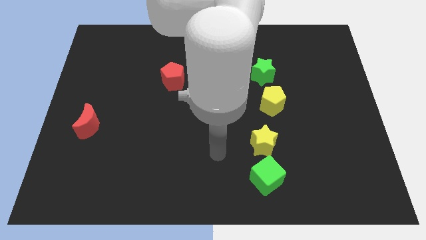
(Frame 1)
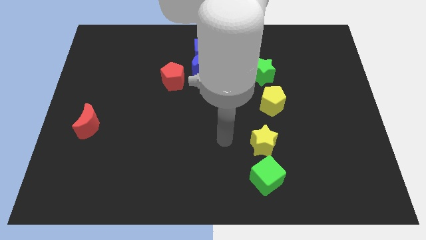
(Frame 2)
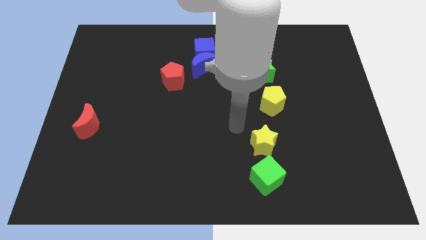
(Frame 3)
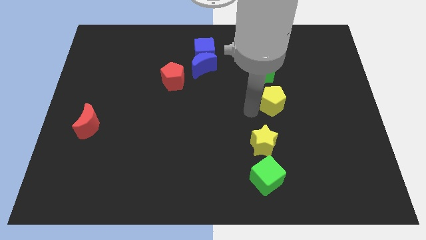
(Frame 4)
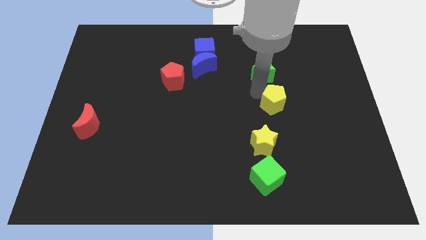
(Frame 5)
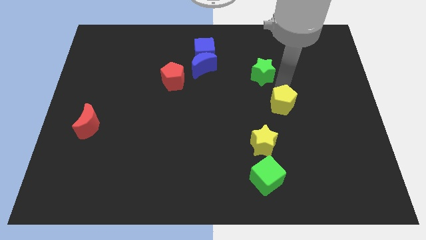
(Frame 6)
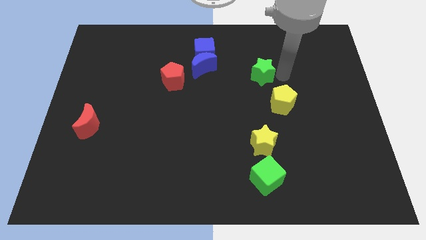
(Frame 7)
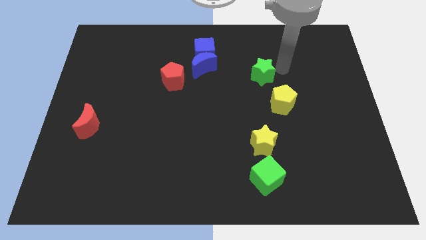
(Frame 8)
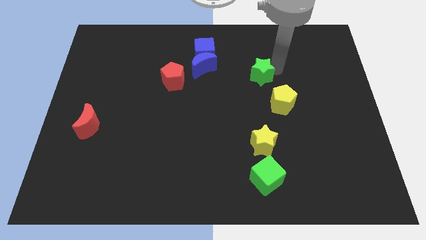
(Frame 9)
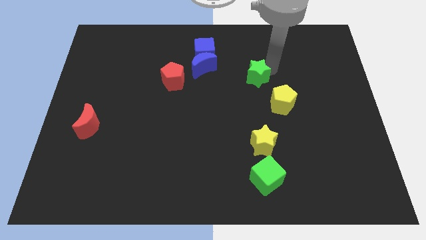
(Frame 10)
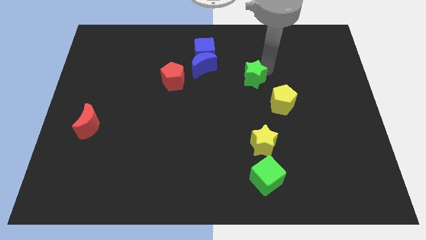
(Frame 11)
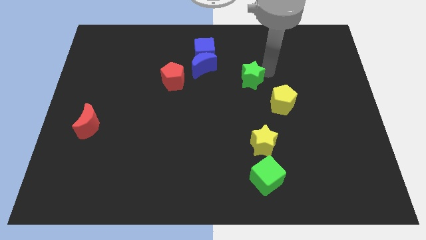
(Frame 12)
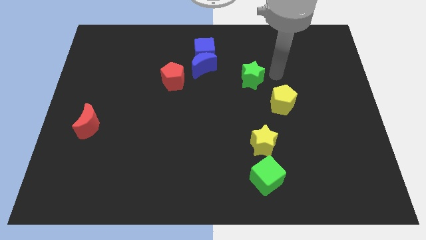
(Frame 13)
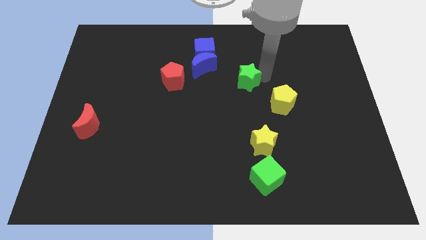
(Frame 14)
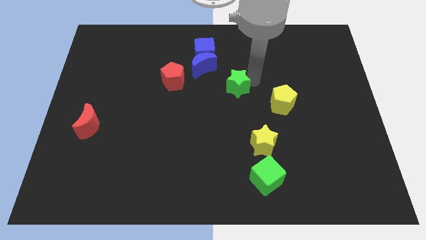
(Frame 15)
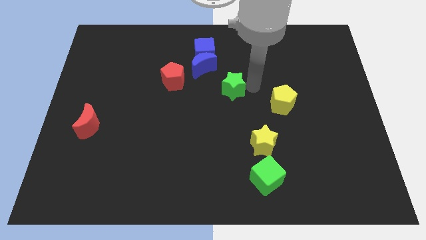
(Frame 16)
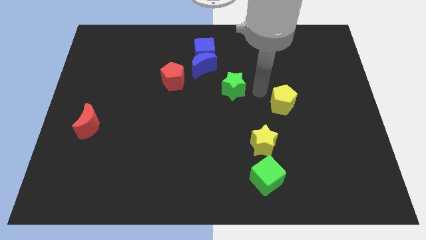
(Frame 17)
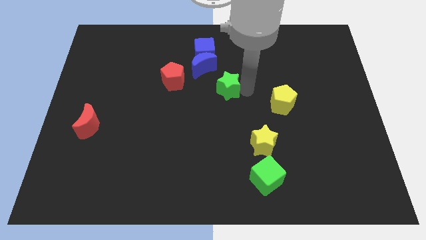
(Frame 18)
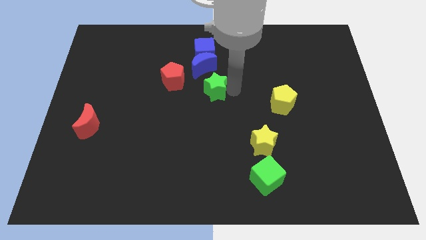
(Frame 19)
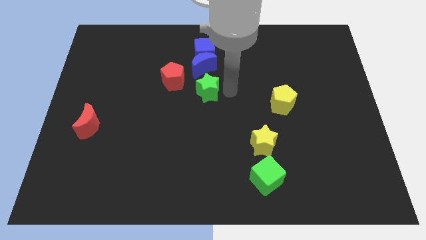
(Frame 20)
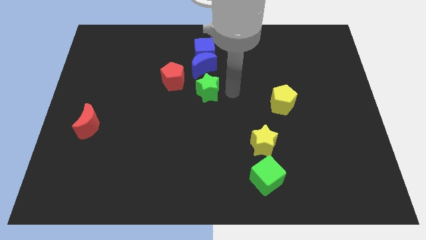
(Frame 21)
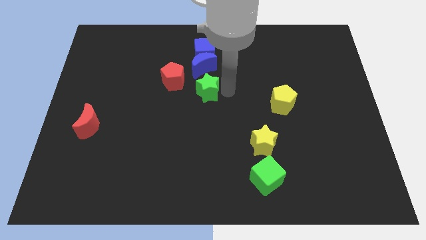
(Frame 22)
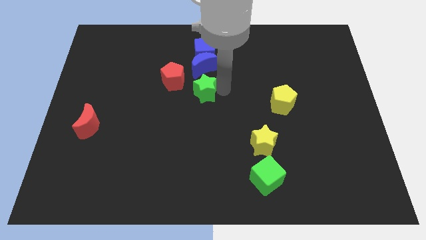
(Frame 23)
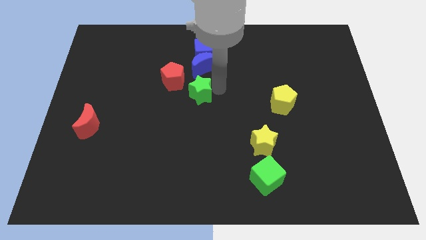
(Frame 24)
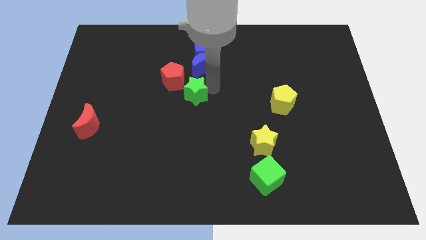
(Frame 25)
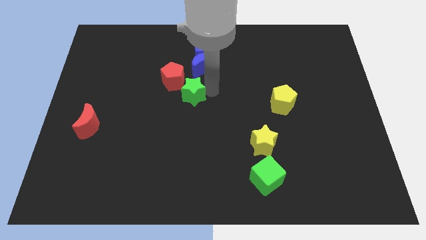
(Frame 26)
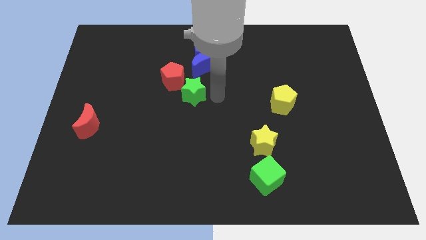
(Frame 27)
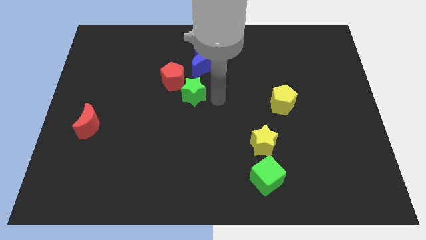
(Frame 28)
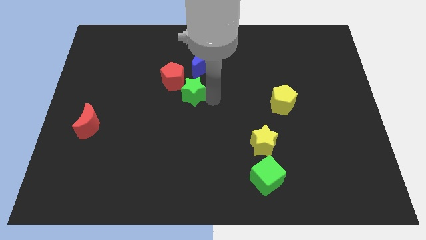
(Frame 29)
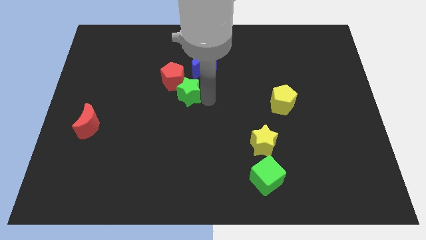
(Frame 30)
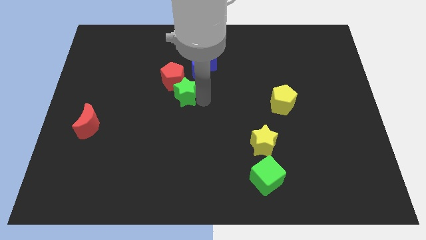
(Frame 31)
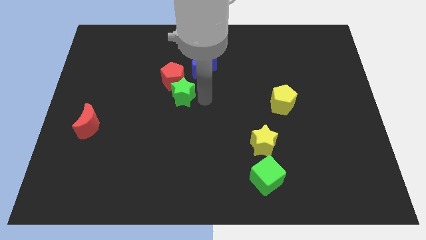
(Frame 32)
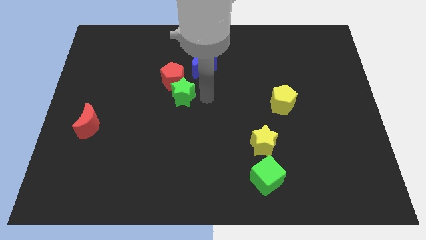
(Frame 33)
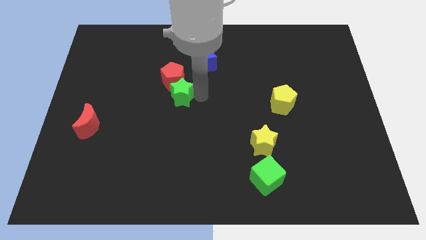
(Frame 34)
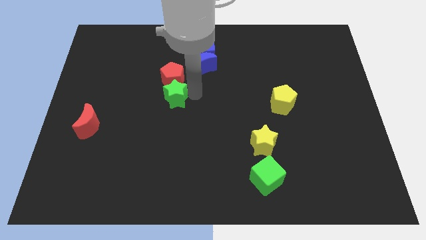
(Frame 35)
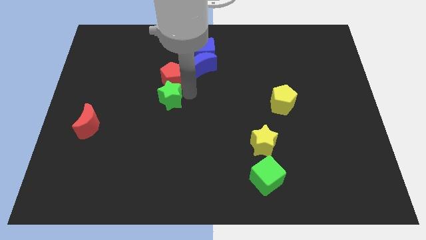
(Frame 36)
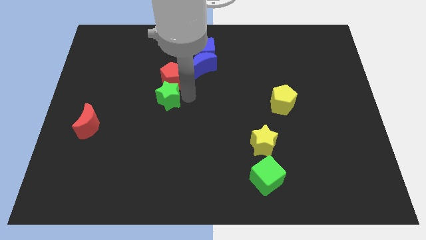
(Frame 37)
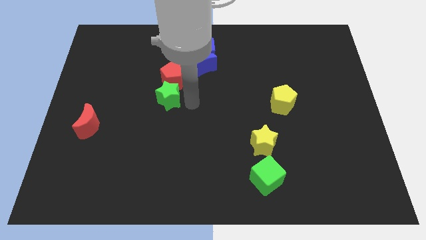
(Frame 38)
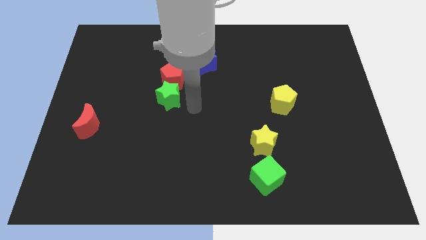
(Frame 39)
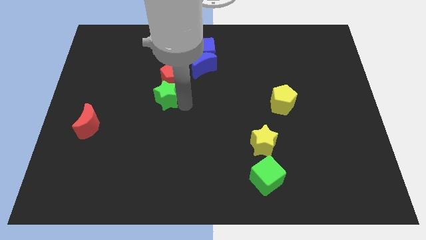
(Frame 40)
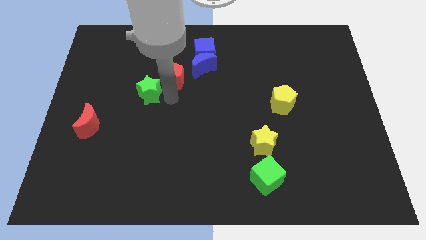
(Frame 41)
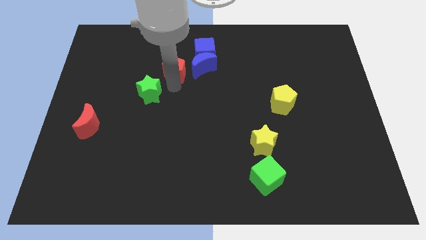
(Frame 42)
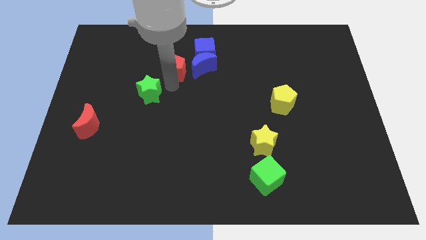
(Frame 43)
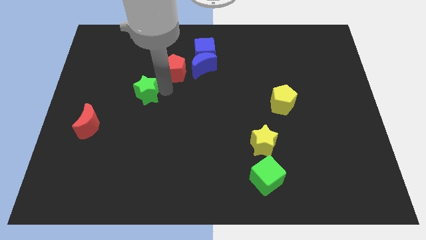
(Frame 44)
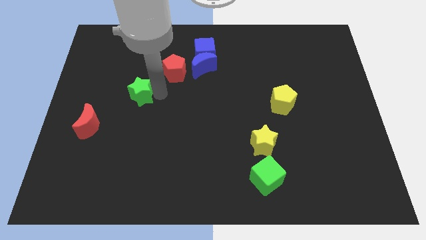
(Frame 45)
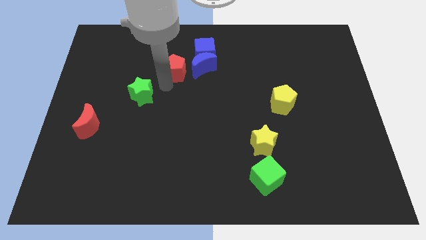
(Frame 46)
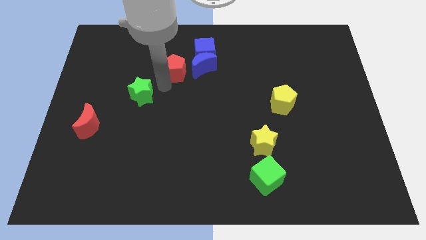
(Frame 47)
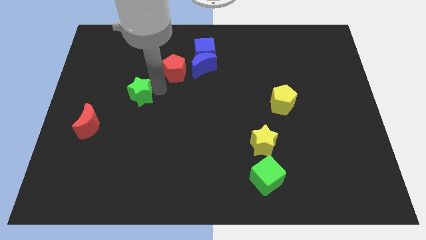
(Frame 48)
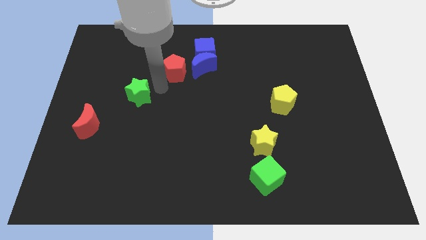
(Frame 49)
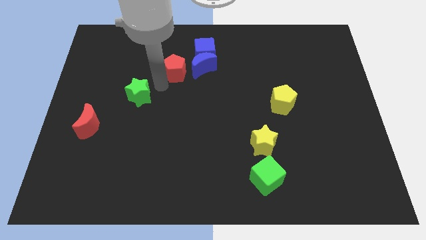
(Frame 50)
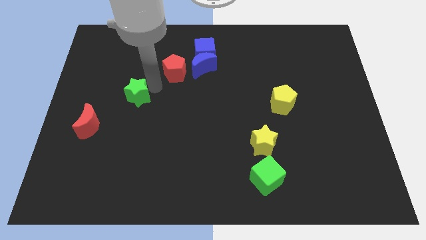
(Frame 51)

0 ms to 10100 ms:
push the green star diagonally up and to the right of the red moon

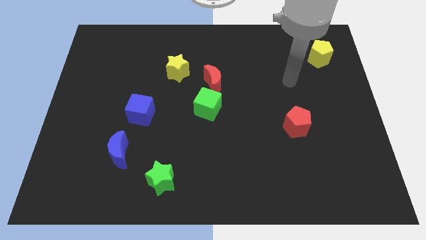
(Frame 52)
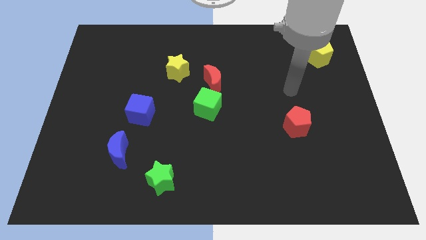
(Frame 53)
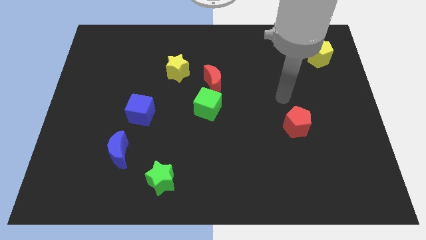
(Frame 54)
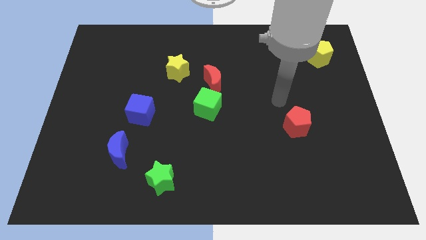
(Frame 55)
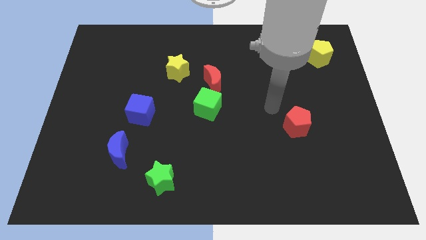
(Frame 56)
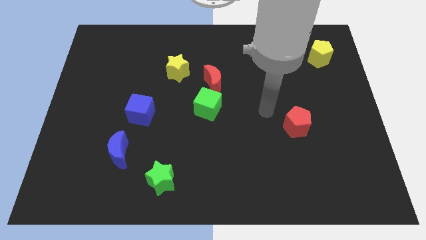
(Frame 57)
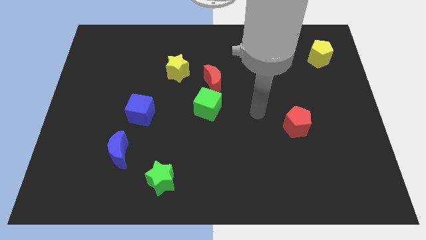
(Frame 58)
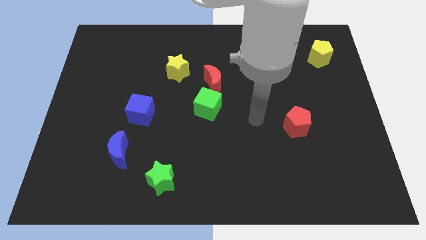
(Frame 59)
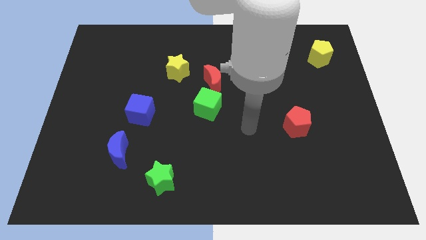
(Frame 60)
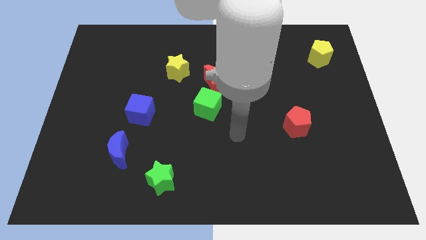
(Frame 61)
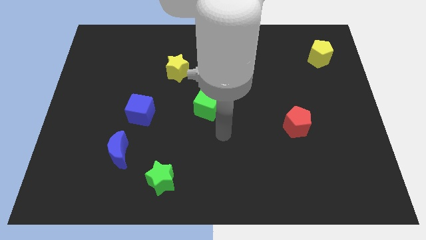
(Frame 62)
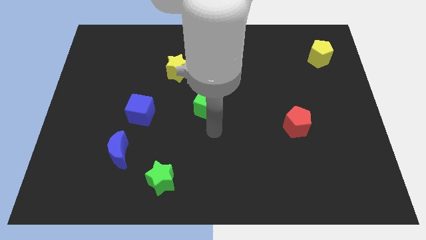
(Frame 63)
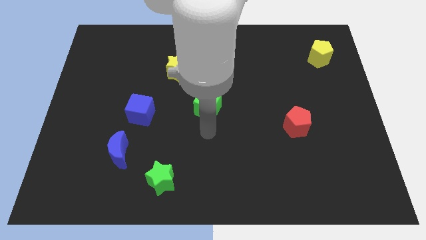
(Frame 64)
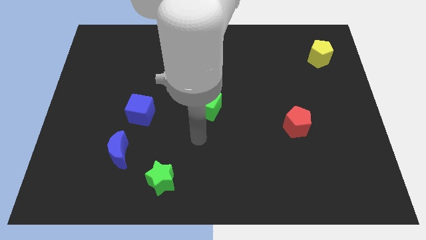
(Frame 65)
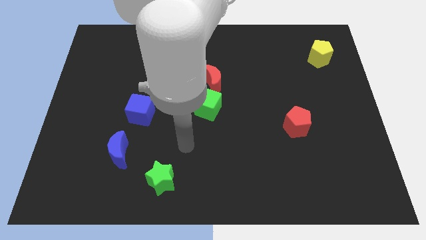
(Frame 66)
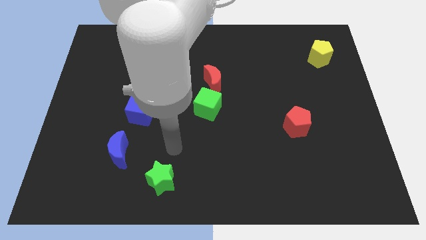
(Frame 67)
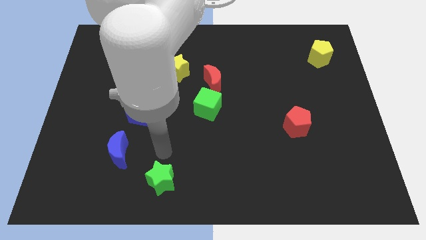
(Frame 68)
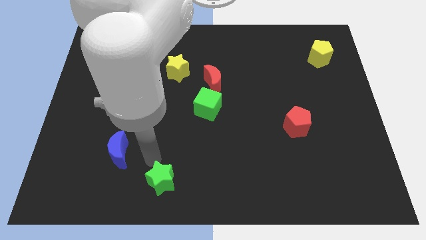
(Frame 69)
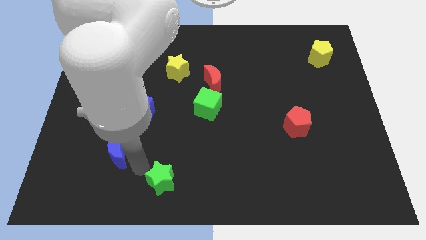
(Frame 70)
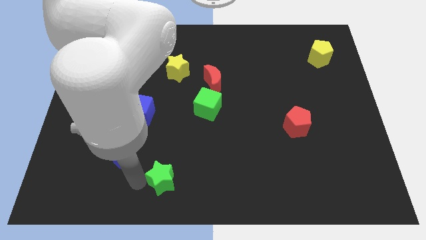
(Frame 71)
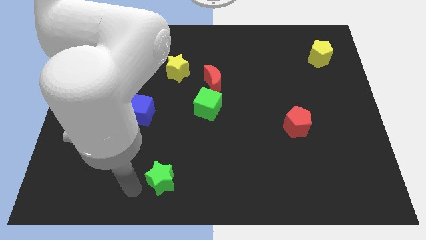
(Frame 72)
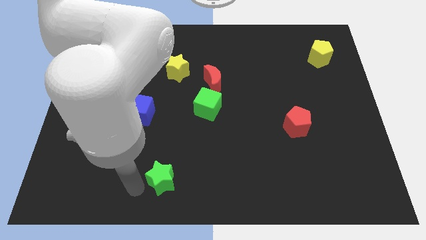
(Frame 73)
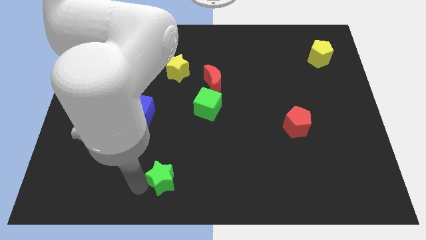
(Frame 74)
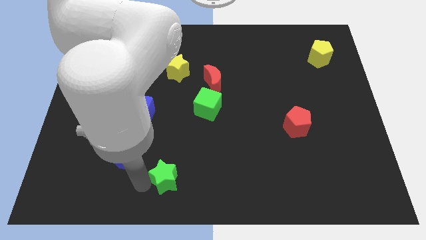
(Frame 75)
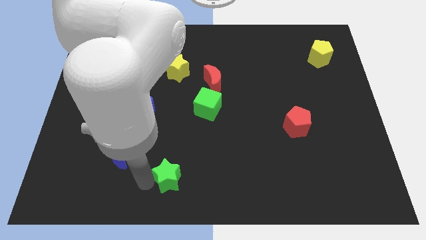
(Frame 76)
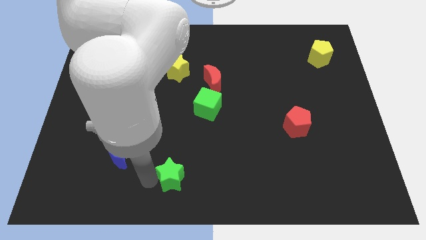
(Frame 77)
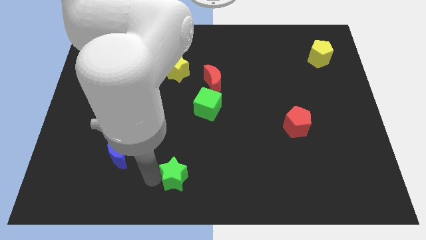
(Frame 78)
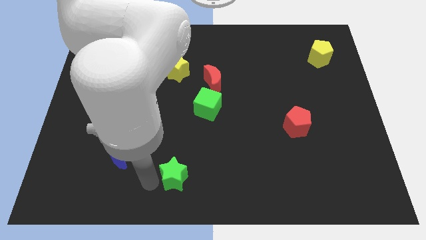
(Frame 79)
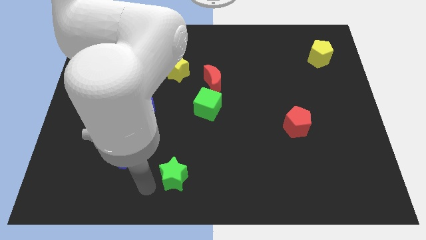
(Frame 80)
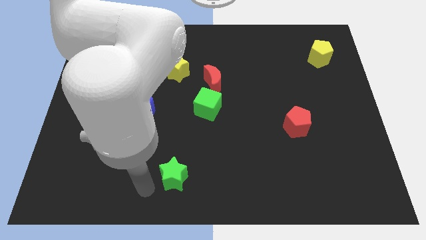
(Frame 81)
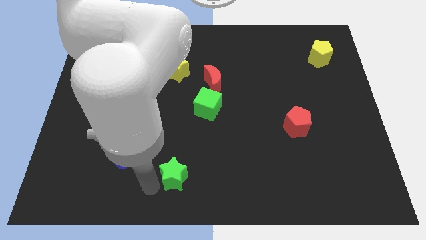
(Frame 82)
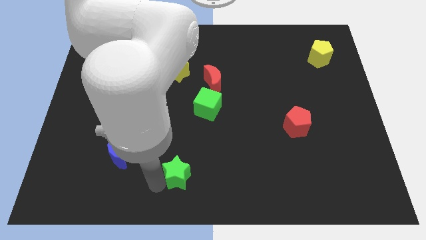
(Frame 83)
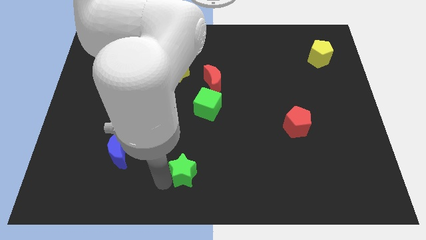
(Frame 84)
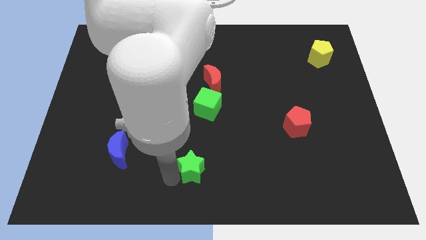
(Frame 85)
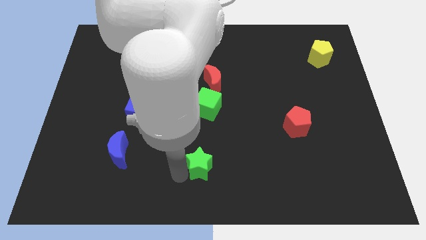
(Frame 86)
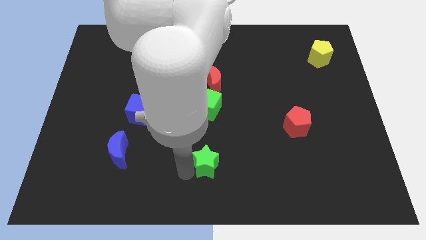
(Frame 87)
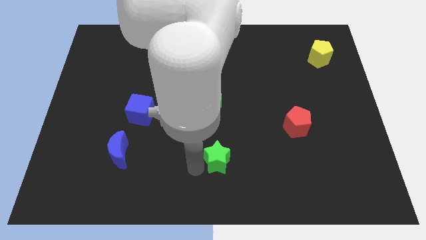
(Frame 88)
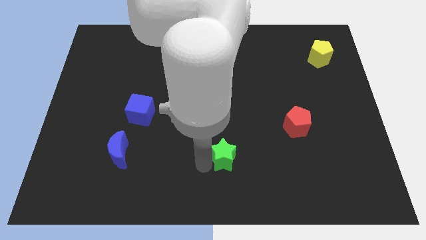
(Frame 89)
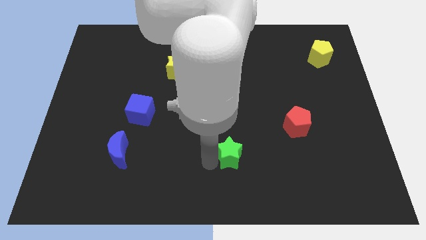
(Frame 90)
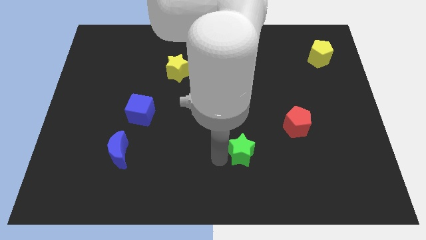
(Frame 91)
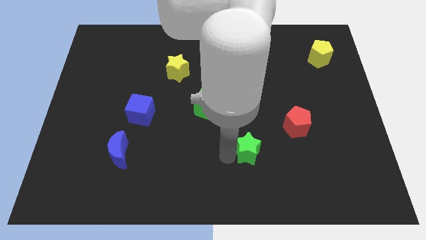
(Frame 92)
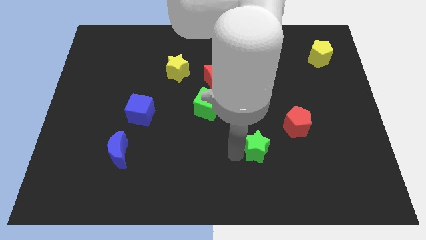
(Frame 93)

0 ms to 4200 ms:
push the green star to the bottom left of the red pentagon
